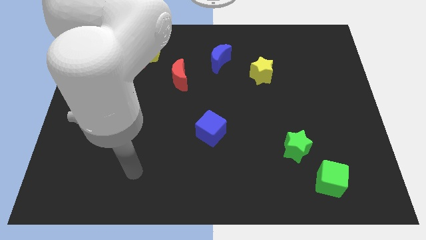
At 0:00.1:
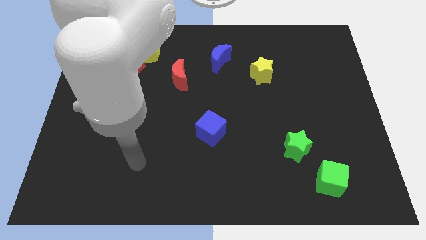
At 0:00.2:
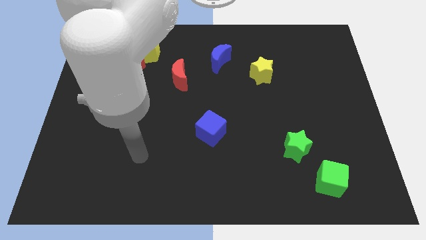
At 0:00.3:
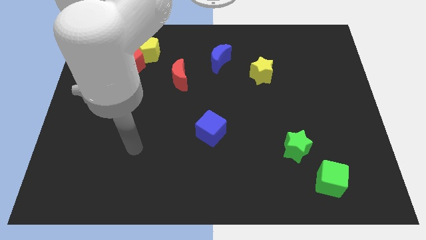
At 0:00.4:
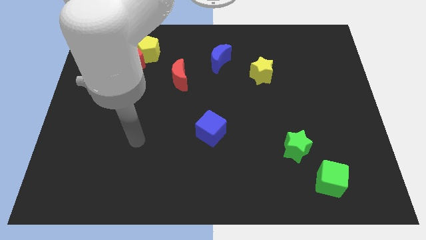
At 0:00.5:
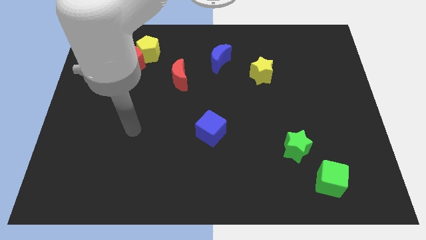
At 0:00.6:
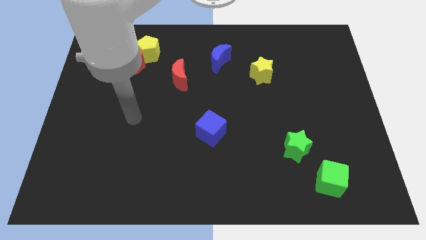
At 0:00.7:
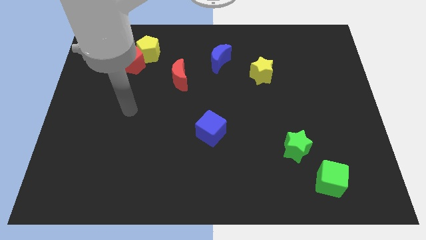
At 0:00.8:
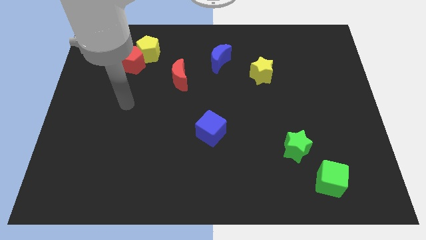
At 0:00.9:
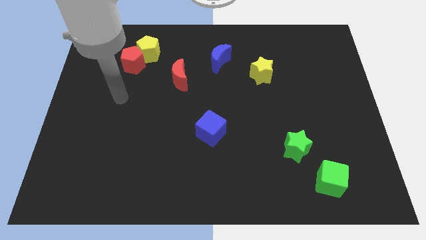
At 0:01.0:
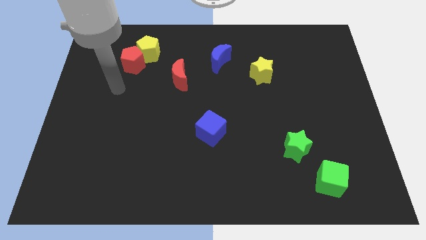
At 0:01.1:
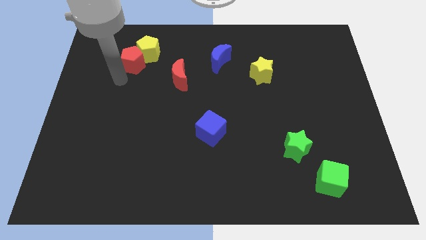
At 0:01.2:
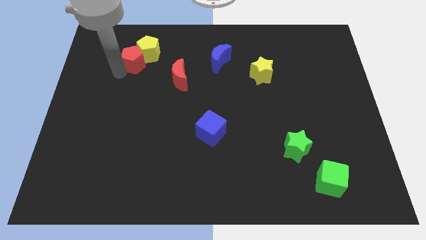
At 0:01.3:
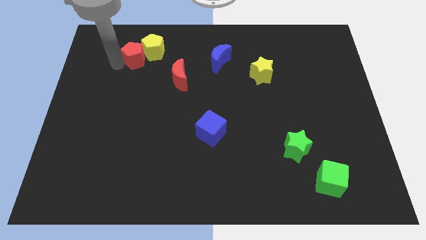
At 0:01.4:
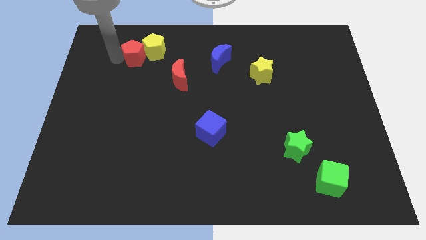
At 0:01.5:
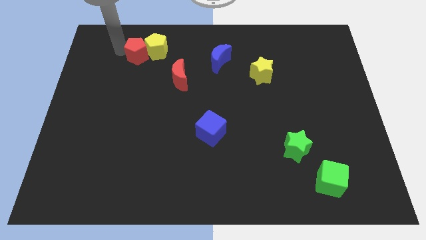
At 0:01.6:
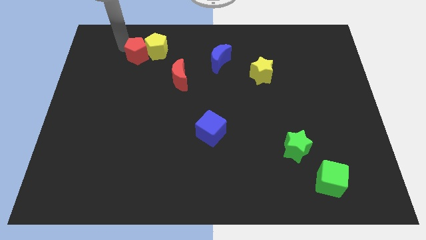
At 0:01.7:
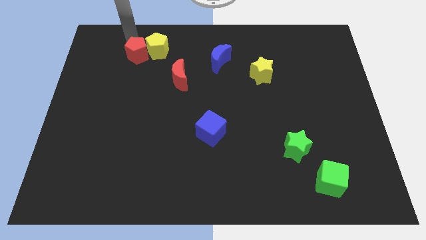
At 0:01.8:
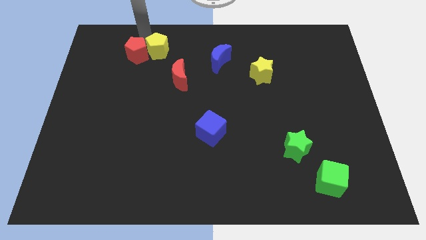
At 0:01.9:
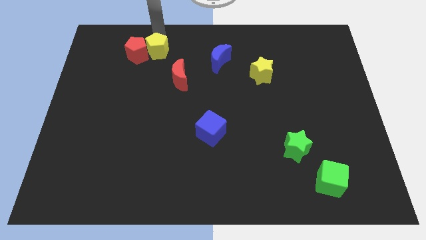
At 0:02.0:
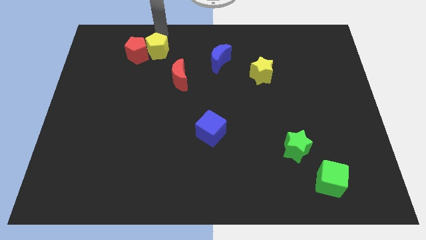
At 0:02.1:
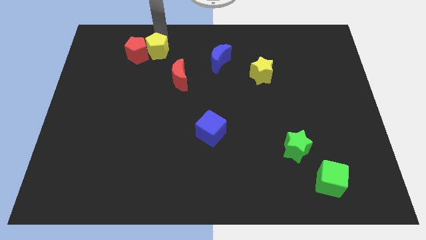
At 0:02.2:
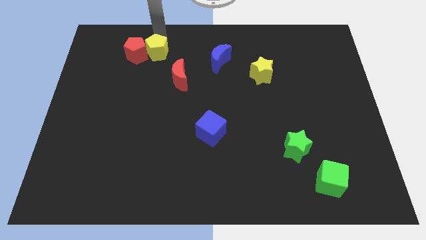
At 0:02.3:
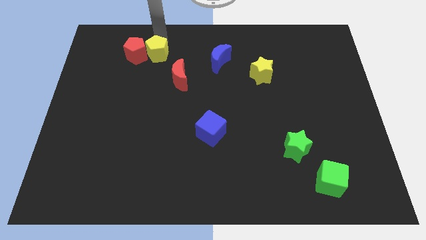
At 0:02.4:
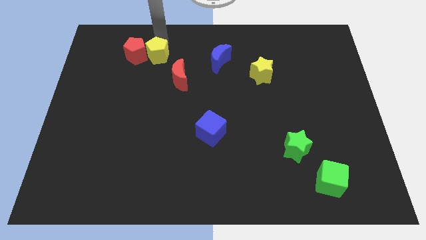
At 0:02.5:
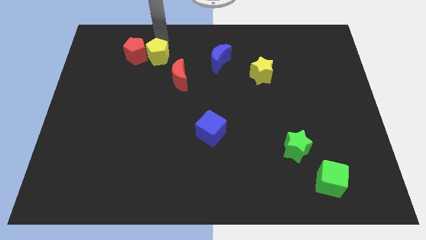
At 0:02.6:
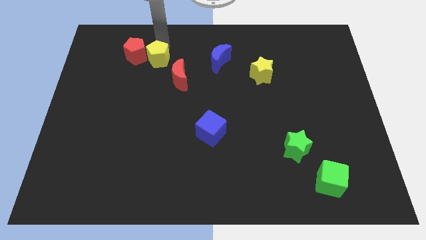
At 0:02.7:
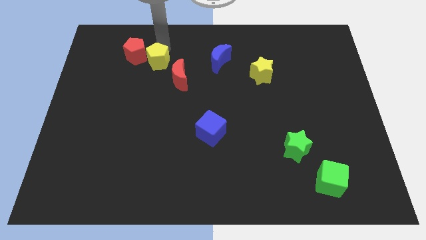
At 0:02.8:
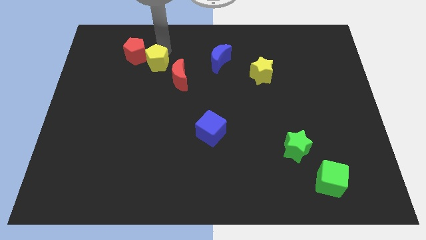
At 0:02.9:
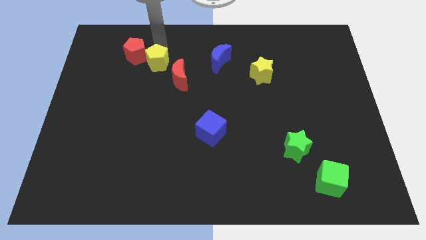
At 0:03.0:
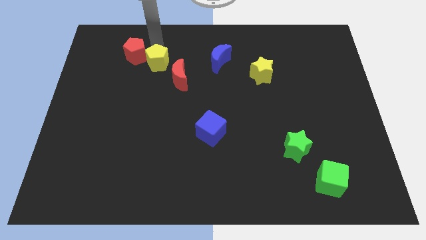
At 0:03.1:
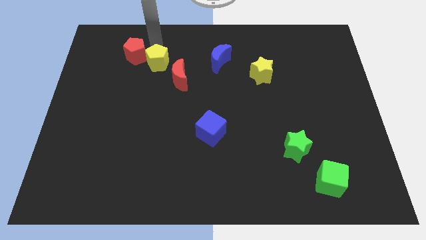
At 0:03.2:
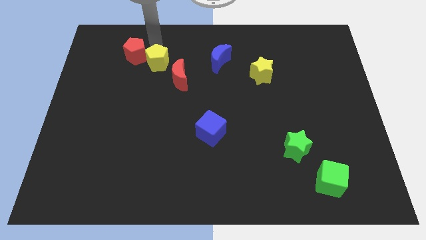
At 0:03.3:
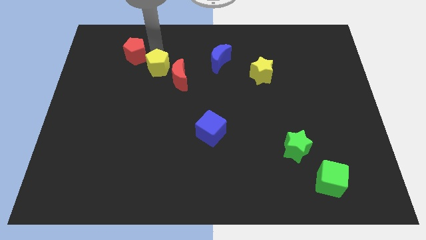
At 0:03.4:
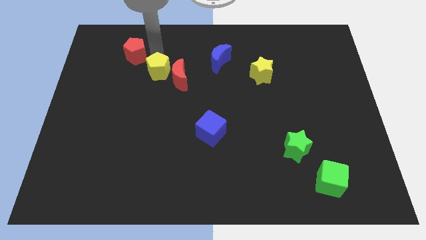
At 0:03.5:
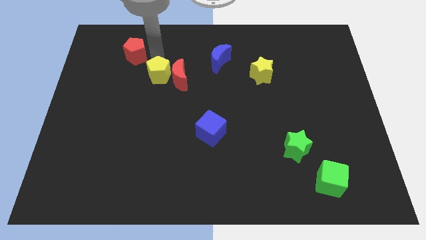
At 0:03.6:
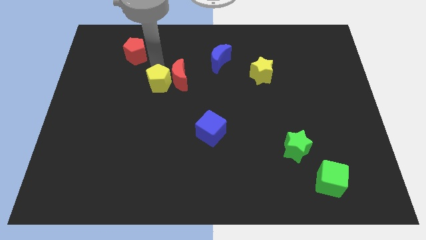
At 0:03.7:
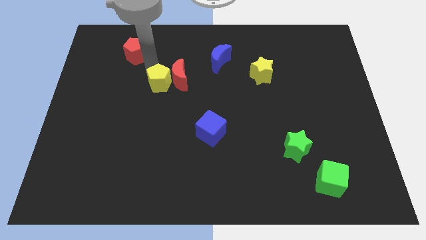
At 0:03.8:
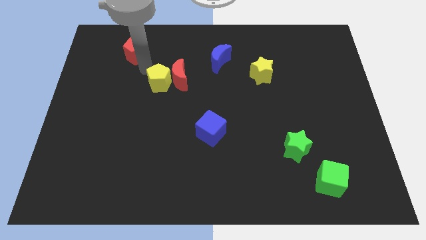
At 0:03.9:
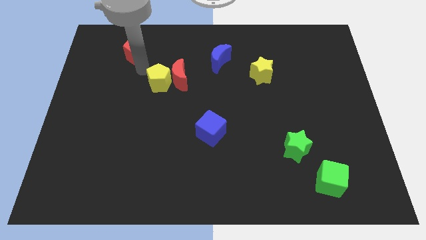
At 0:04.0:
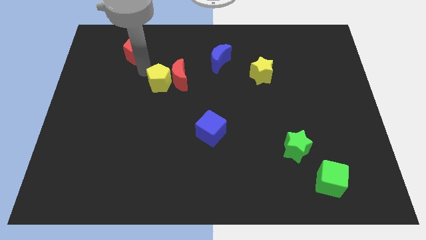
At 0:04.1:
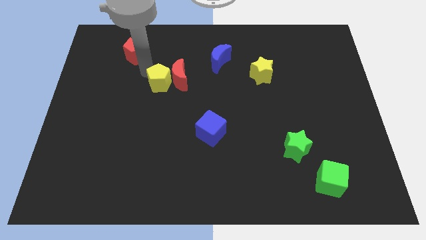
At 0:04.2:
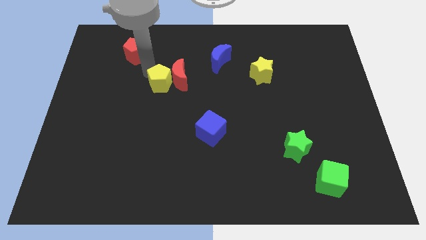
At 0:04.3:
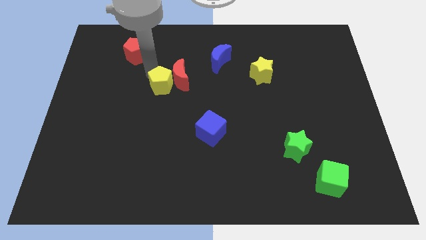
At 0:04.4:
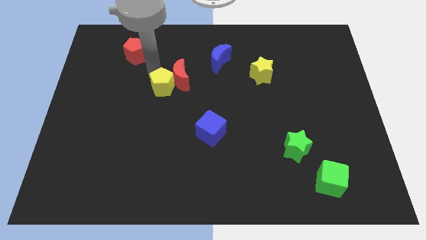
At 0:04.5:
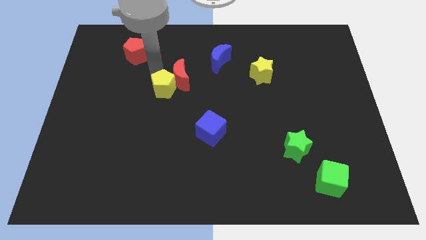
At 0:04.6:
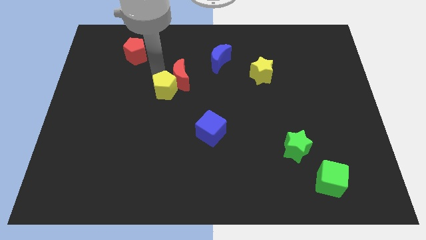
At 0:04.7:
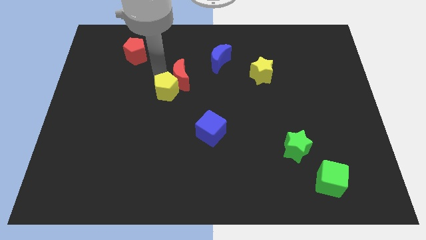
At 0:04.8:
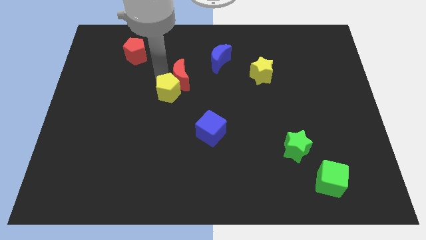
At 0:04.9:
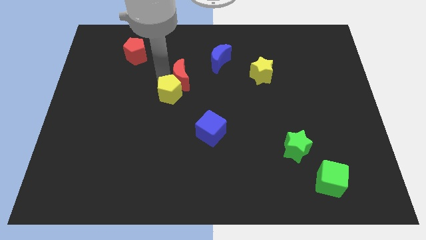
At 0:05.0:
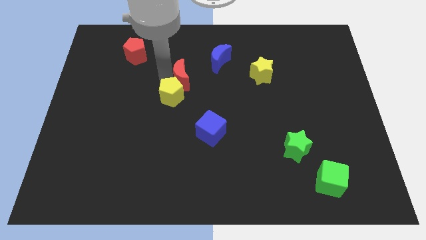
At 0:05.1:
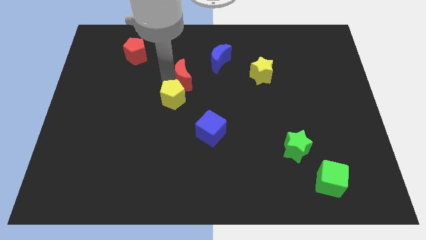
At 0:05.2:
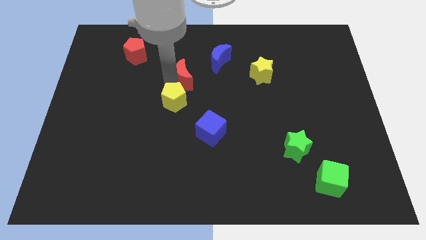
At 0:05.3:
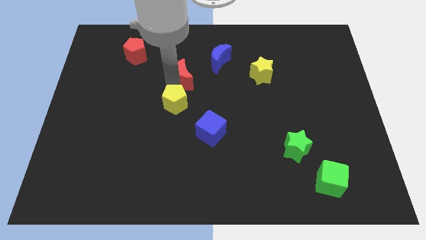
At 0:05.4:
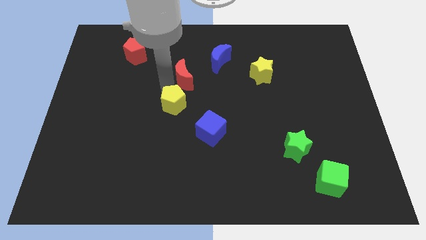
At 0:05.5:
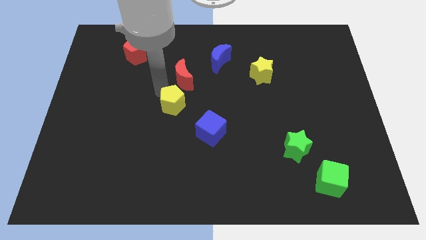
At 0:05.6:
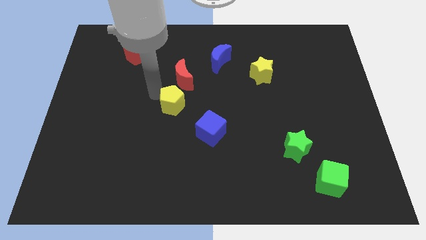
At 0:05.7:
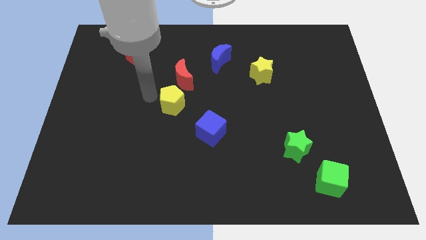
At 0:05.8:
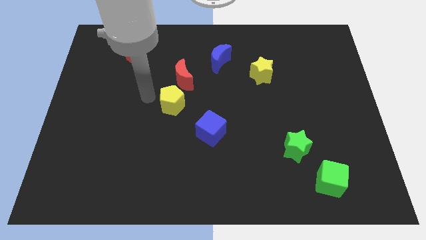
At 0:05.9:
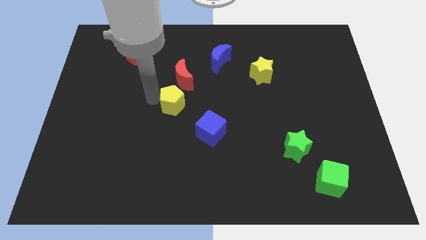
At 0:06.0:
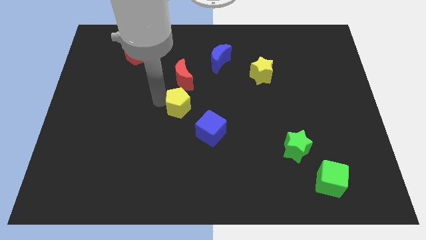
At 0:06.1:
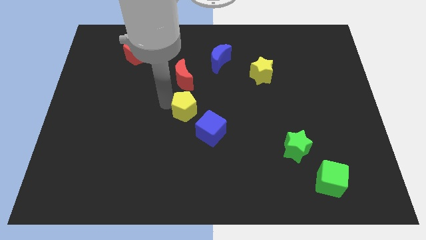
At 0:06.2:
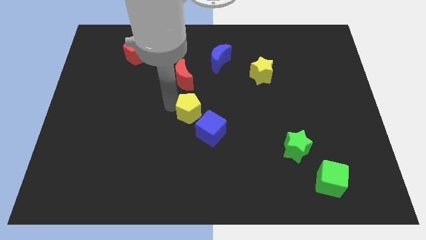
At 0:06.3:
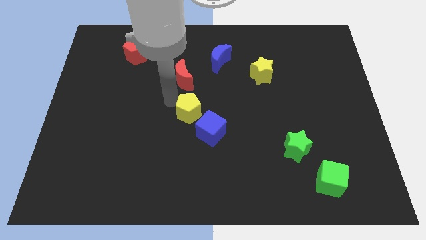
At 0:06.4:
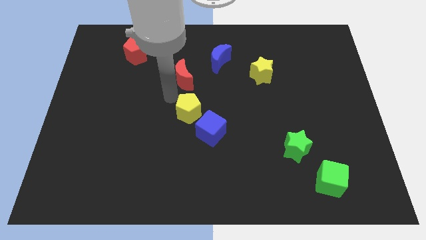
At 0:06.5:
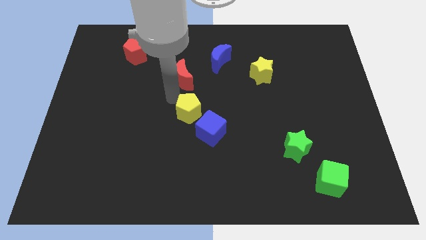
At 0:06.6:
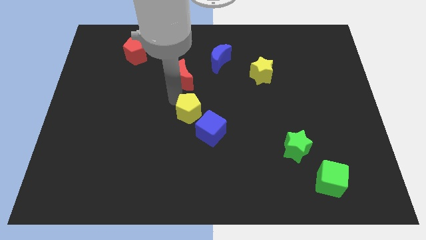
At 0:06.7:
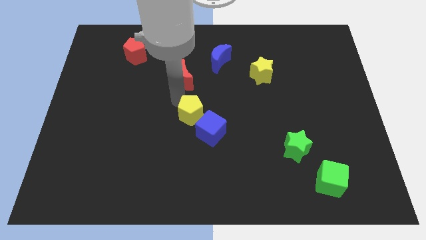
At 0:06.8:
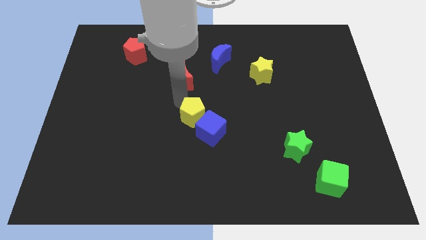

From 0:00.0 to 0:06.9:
slide the yellow pentagon close to the blue cube

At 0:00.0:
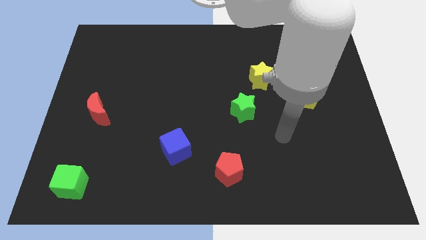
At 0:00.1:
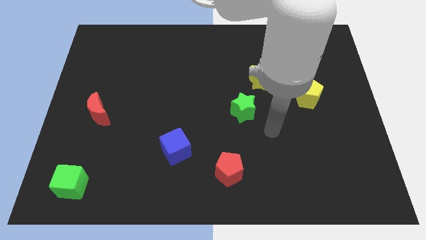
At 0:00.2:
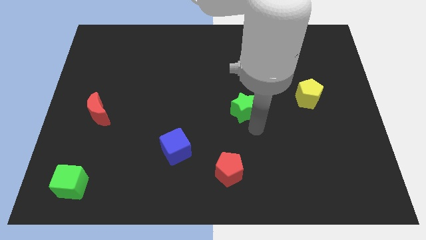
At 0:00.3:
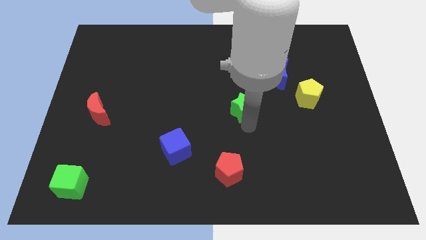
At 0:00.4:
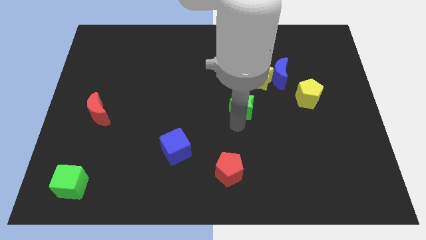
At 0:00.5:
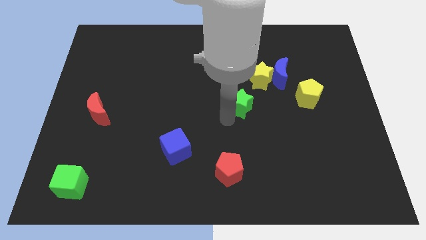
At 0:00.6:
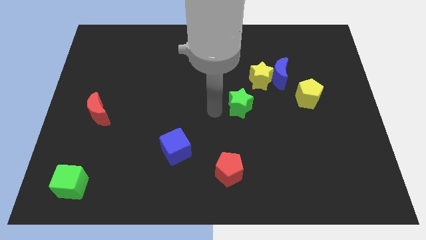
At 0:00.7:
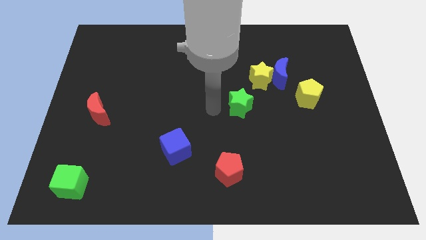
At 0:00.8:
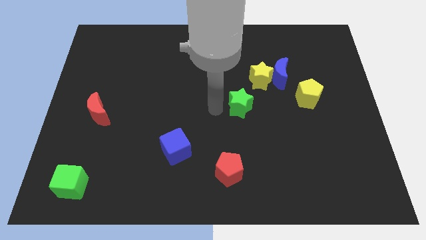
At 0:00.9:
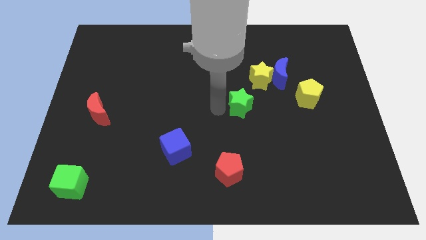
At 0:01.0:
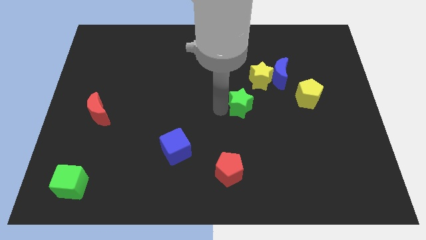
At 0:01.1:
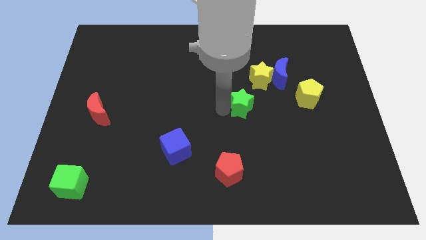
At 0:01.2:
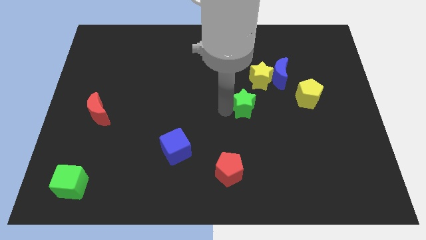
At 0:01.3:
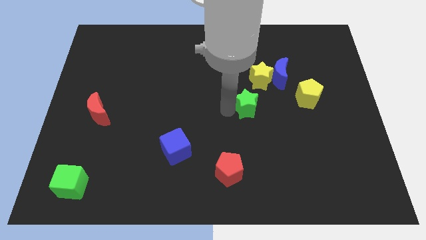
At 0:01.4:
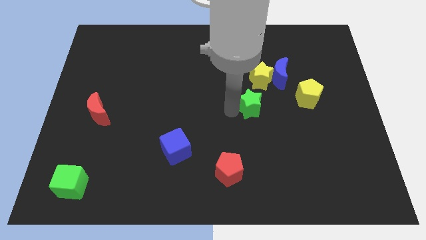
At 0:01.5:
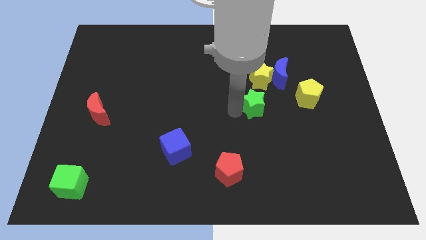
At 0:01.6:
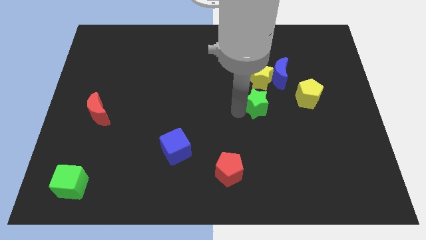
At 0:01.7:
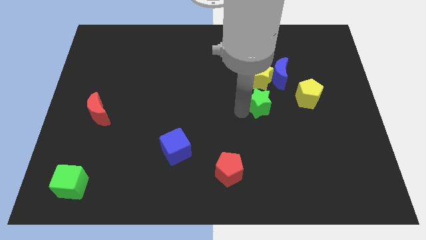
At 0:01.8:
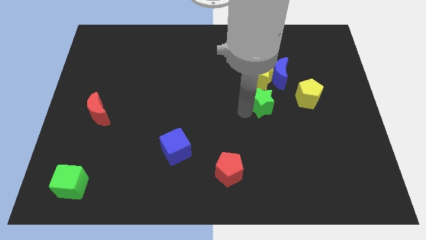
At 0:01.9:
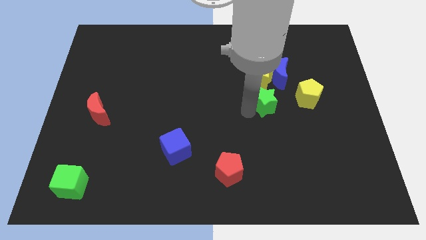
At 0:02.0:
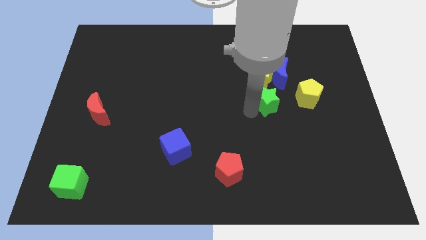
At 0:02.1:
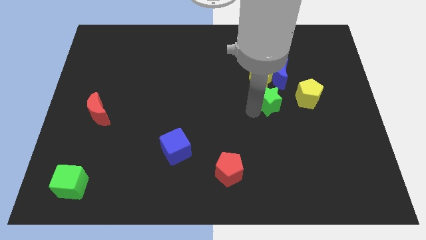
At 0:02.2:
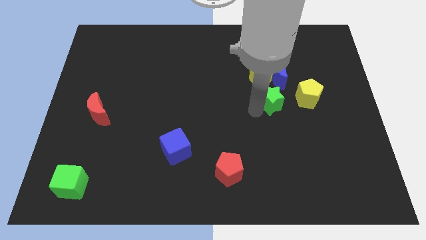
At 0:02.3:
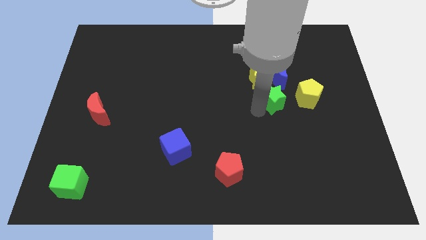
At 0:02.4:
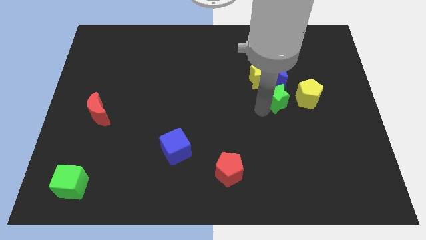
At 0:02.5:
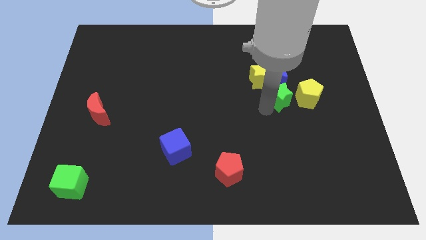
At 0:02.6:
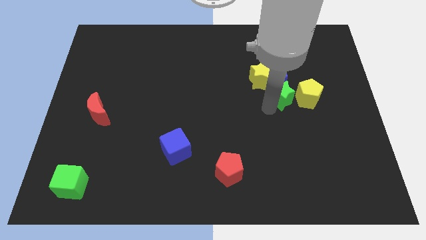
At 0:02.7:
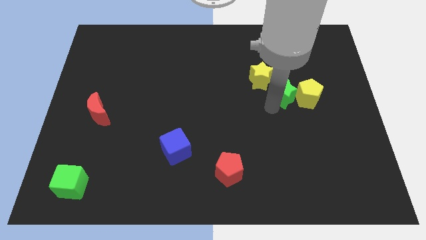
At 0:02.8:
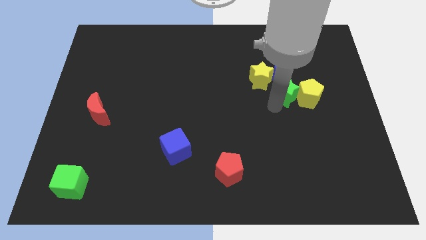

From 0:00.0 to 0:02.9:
push the green star close to the blue moon
